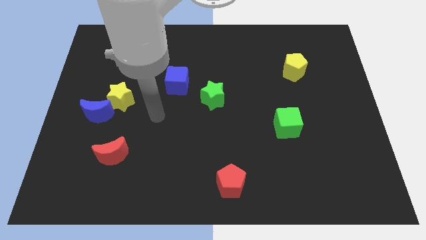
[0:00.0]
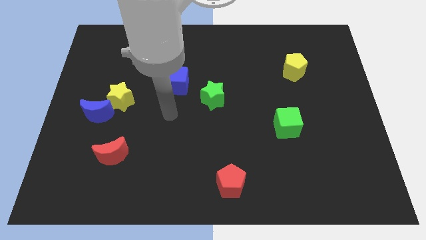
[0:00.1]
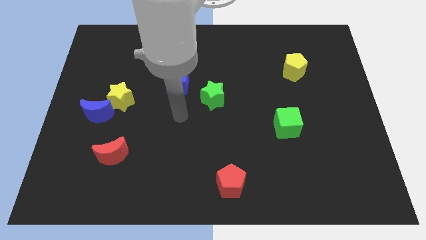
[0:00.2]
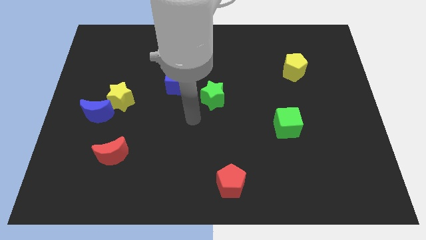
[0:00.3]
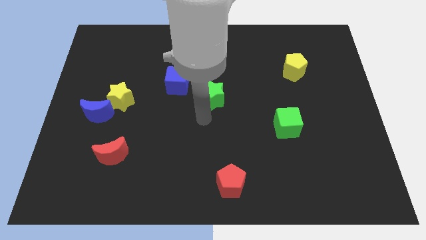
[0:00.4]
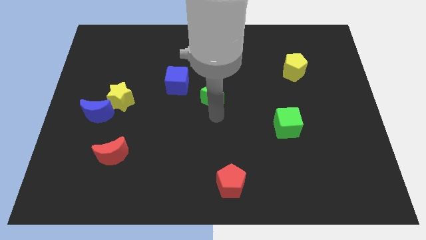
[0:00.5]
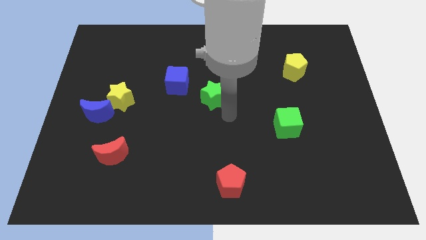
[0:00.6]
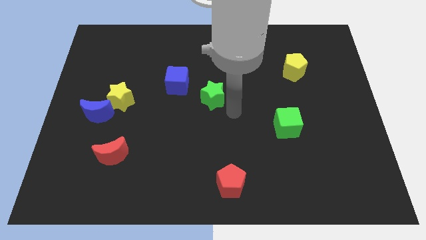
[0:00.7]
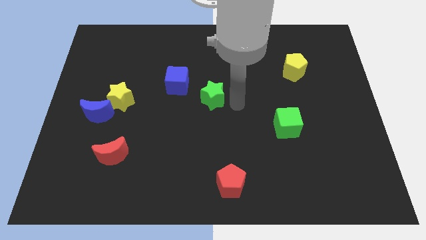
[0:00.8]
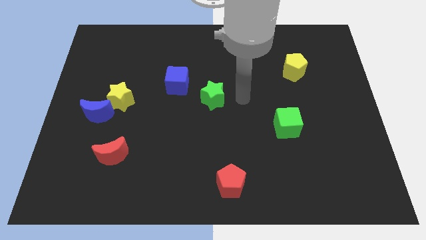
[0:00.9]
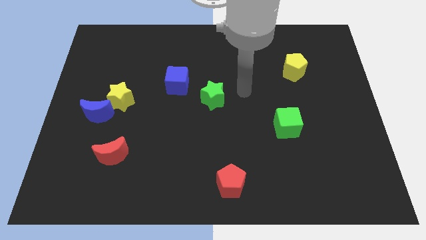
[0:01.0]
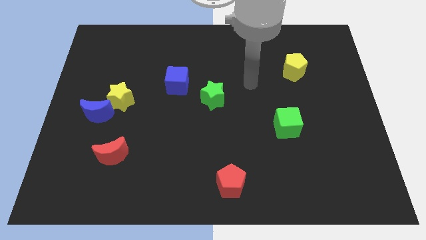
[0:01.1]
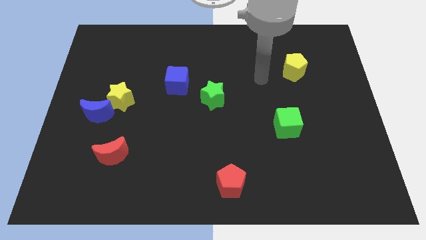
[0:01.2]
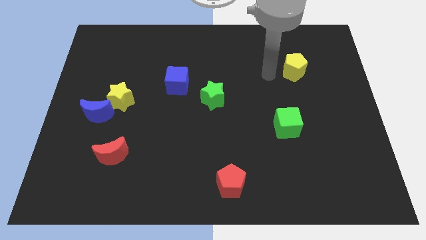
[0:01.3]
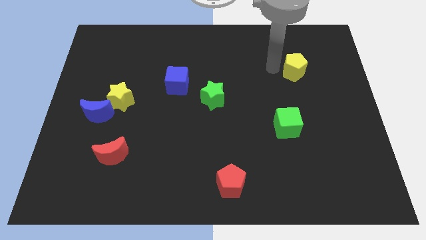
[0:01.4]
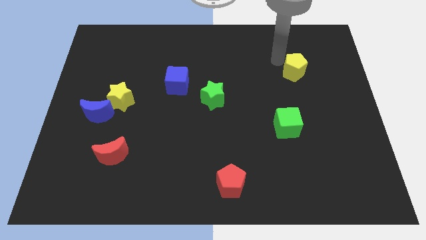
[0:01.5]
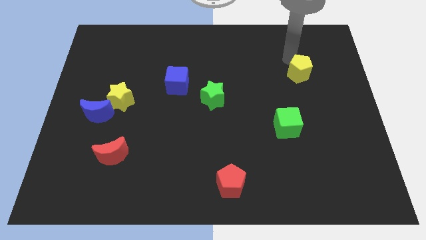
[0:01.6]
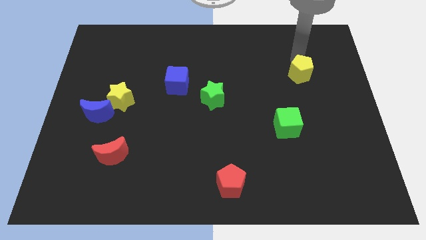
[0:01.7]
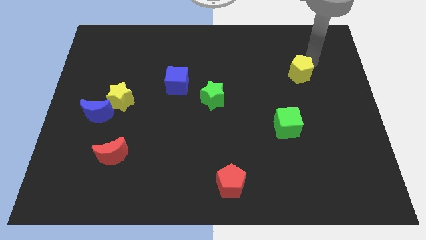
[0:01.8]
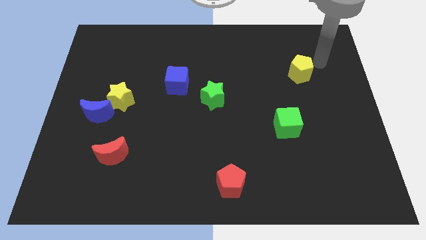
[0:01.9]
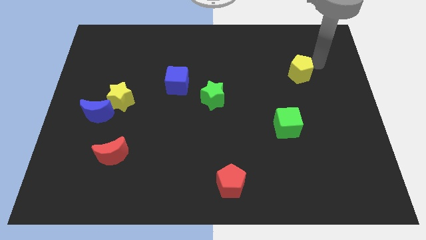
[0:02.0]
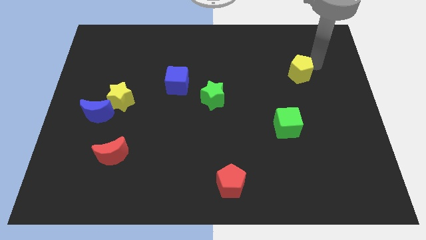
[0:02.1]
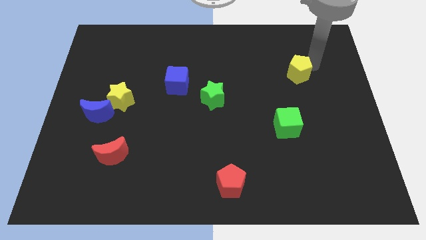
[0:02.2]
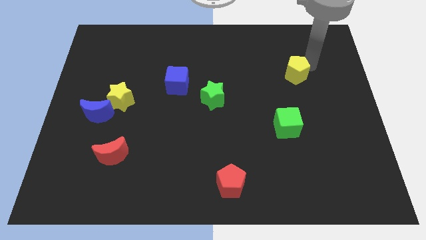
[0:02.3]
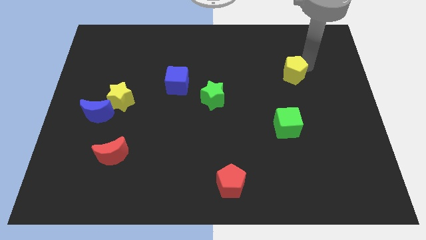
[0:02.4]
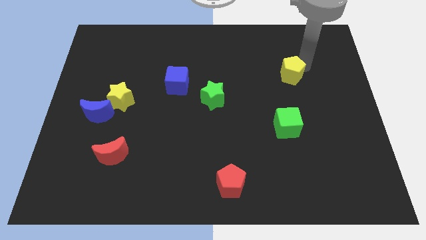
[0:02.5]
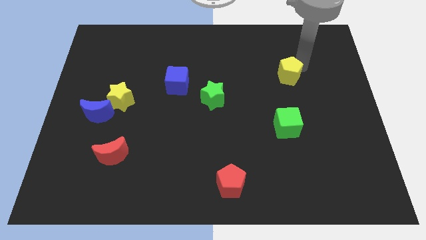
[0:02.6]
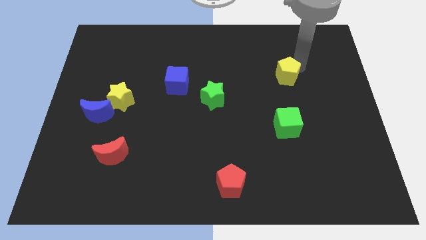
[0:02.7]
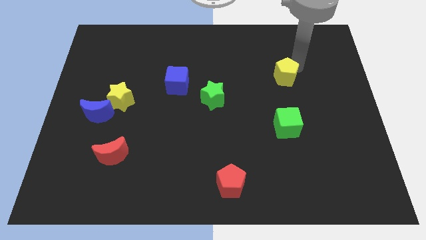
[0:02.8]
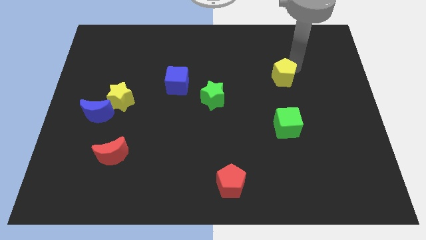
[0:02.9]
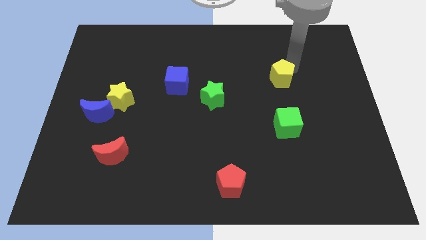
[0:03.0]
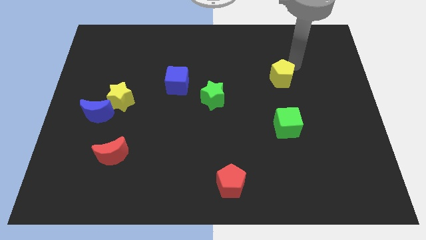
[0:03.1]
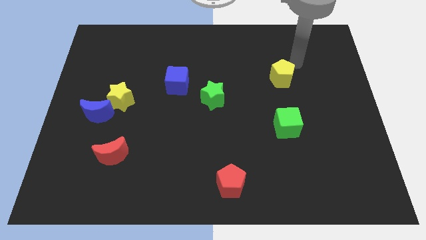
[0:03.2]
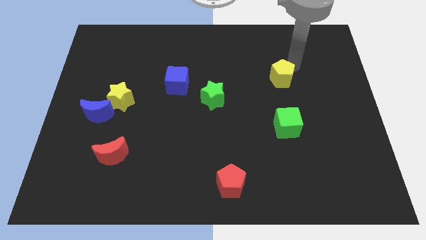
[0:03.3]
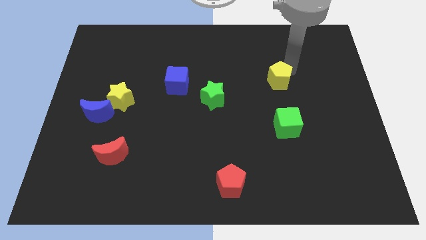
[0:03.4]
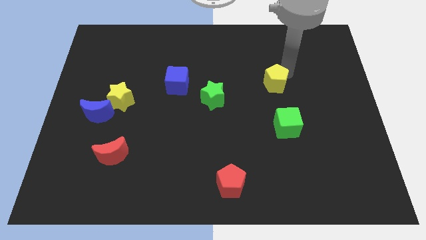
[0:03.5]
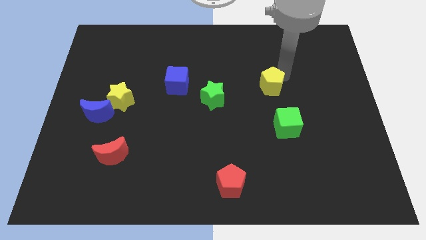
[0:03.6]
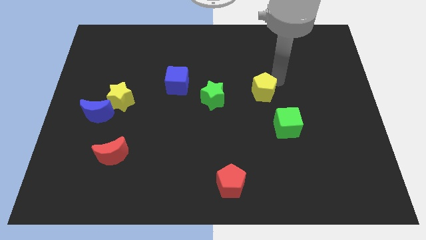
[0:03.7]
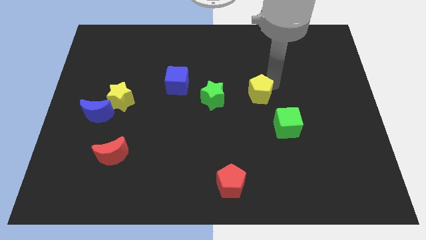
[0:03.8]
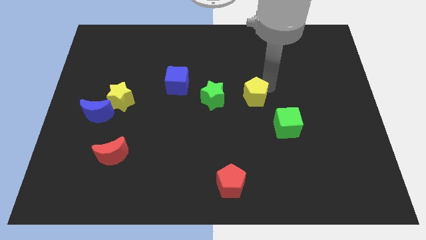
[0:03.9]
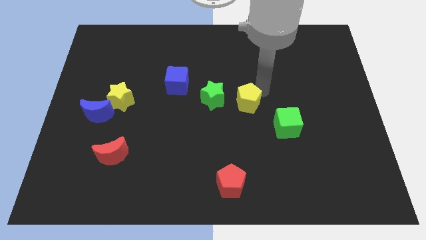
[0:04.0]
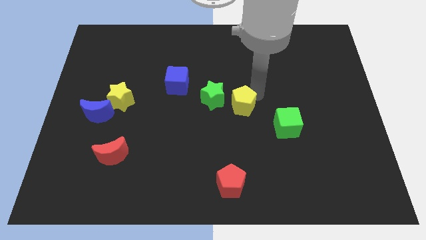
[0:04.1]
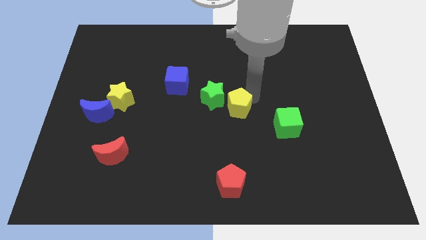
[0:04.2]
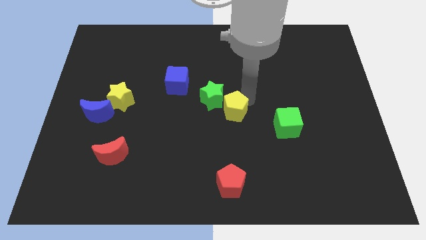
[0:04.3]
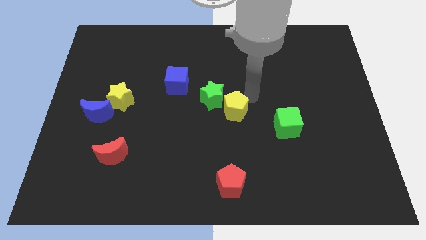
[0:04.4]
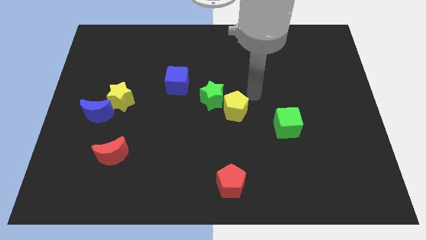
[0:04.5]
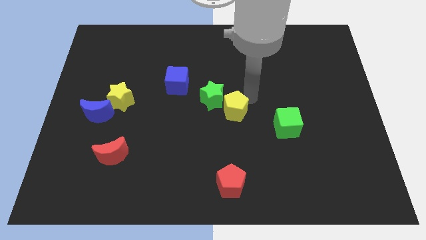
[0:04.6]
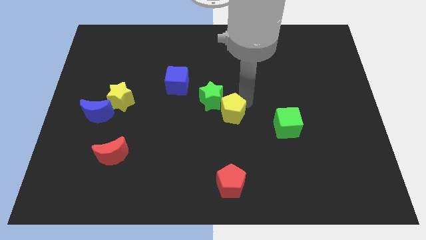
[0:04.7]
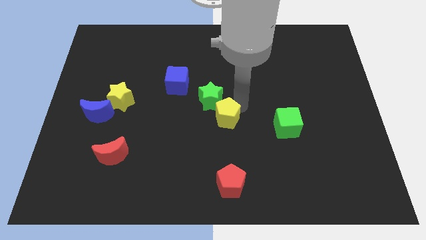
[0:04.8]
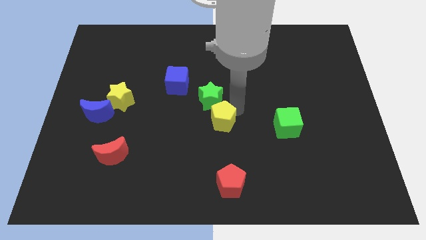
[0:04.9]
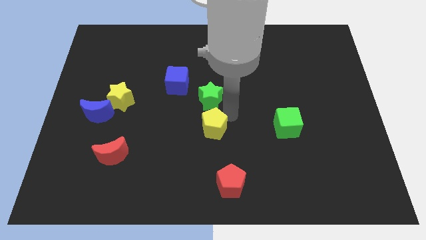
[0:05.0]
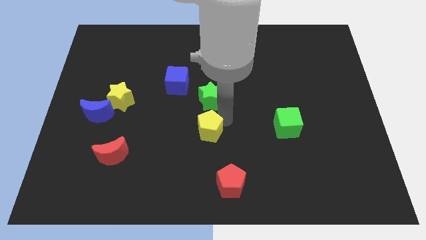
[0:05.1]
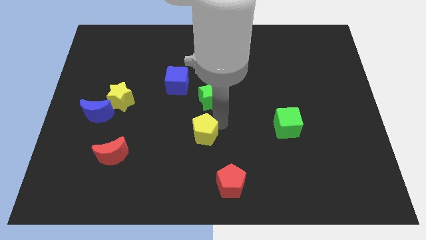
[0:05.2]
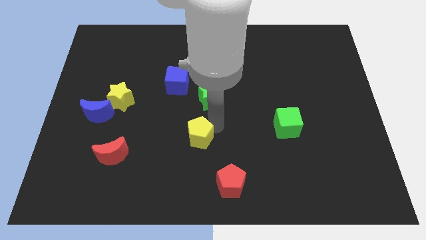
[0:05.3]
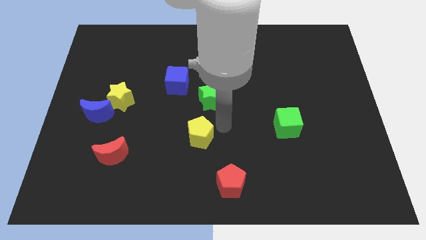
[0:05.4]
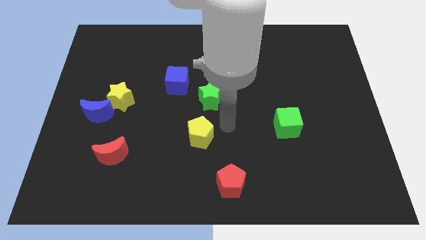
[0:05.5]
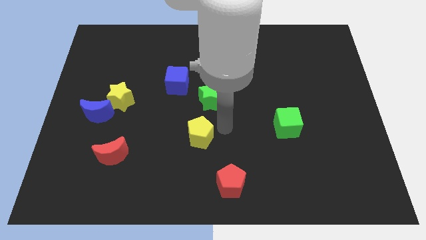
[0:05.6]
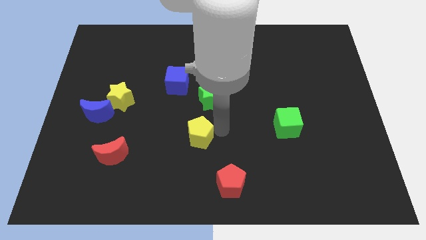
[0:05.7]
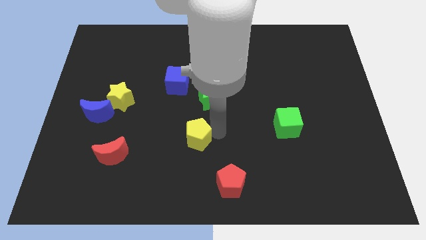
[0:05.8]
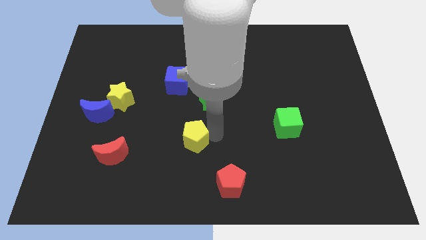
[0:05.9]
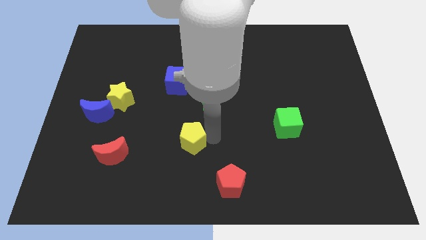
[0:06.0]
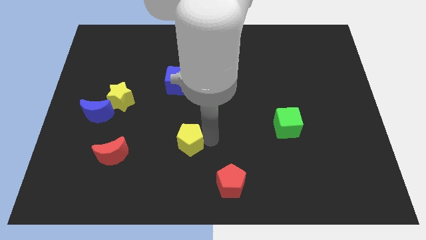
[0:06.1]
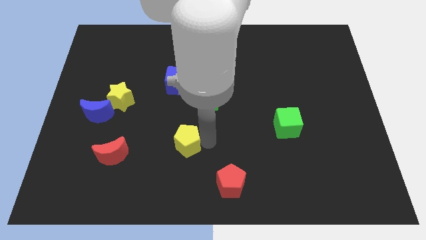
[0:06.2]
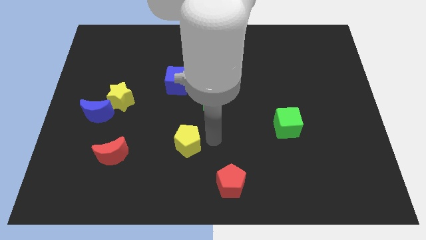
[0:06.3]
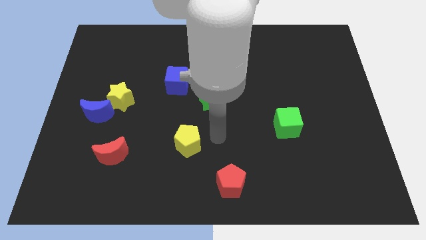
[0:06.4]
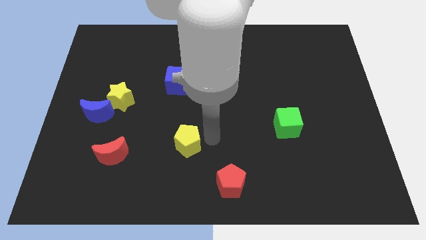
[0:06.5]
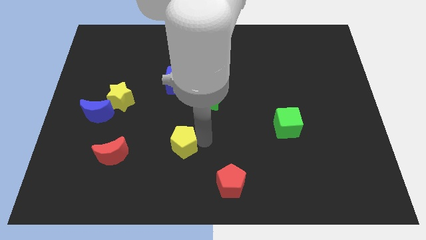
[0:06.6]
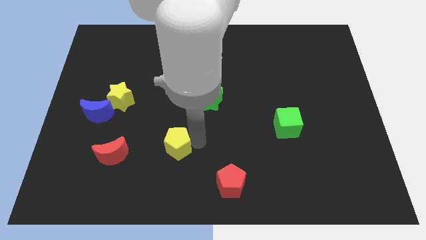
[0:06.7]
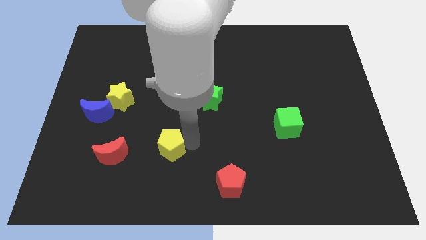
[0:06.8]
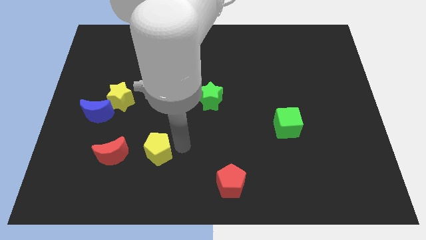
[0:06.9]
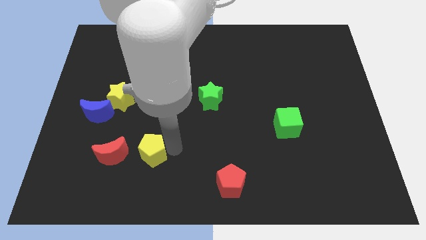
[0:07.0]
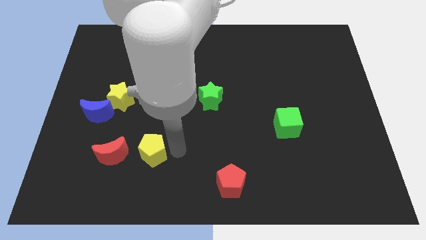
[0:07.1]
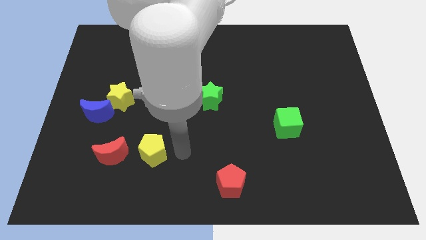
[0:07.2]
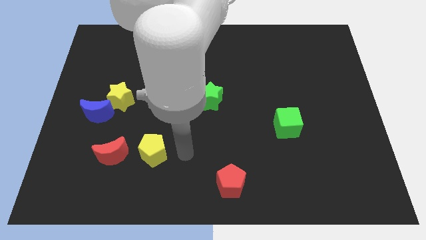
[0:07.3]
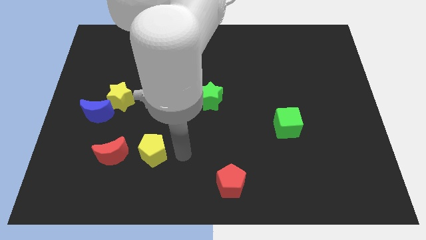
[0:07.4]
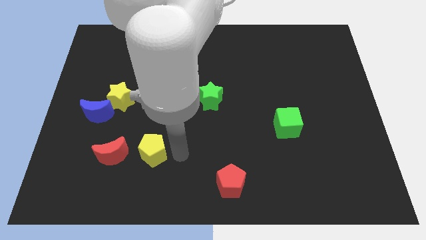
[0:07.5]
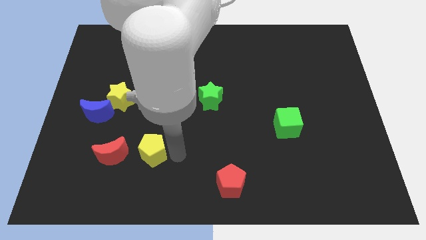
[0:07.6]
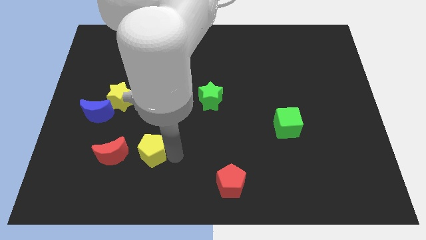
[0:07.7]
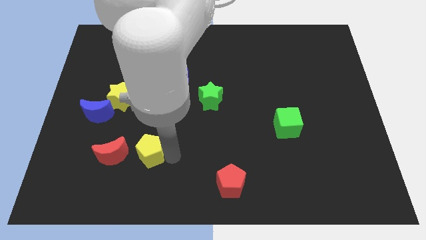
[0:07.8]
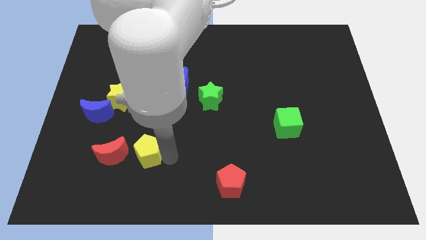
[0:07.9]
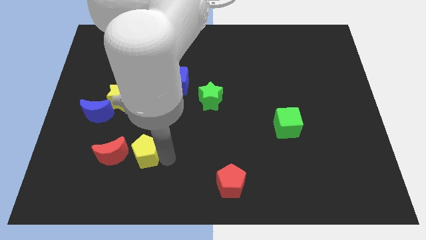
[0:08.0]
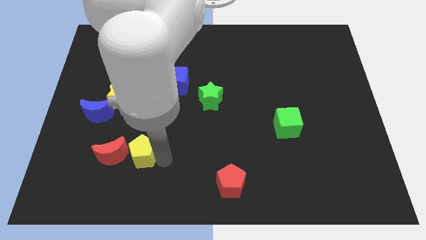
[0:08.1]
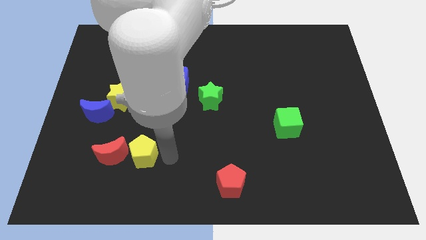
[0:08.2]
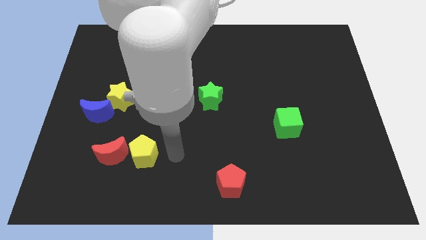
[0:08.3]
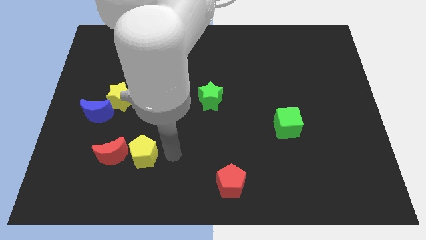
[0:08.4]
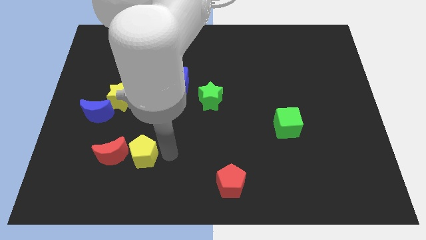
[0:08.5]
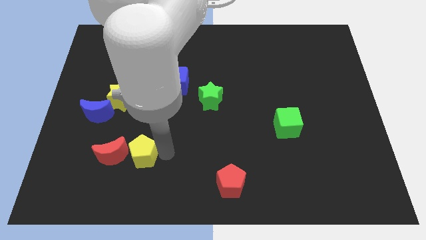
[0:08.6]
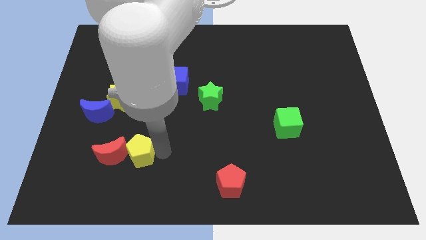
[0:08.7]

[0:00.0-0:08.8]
put the yellow pentagon to the red moon
